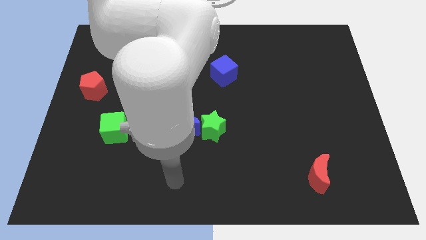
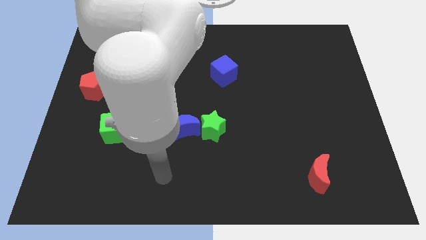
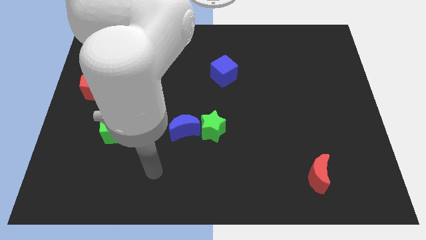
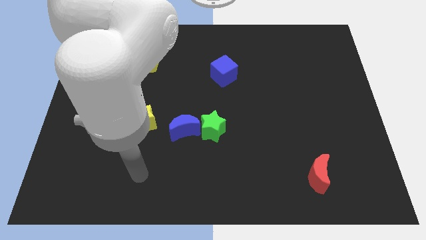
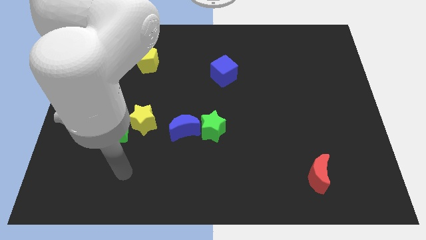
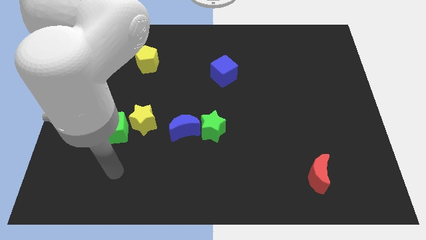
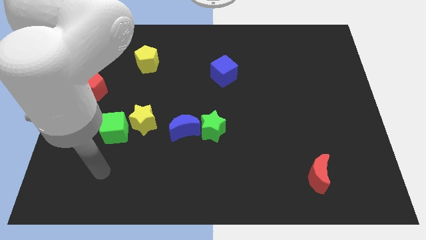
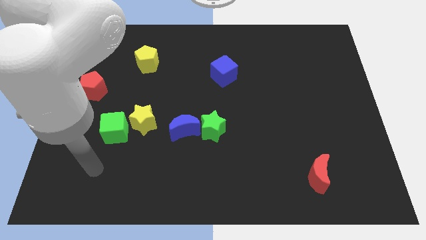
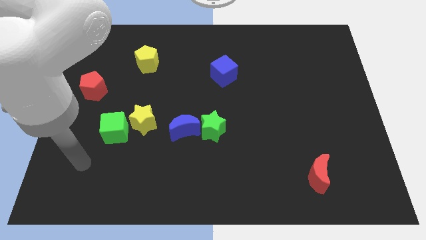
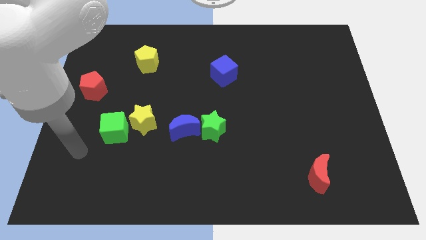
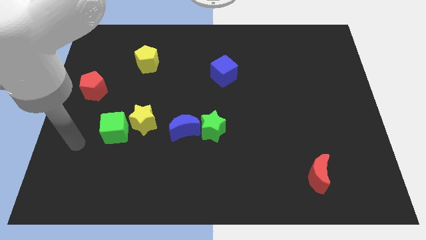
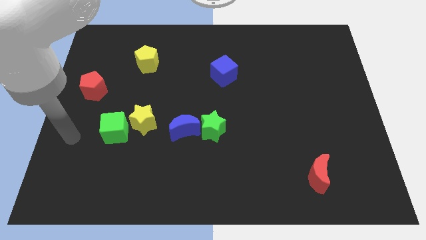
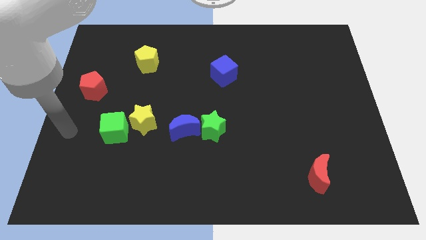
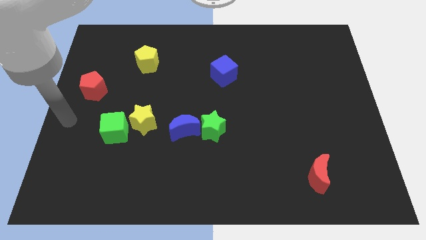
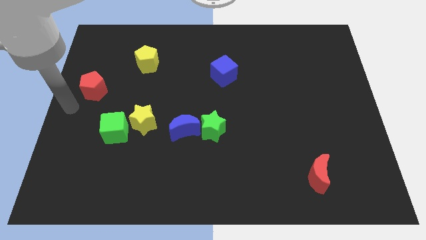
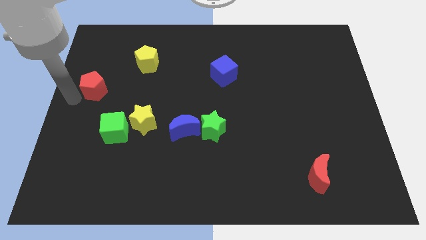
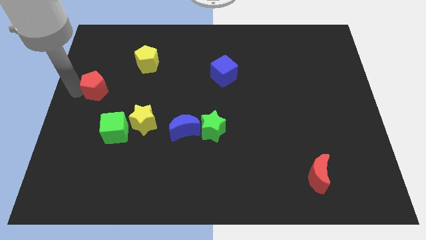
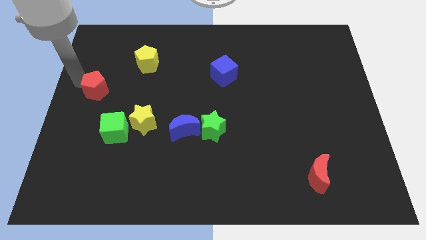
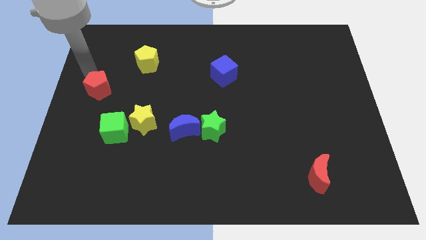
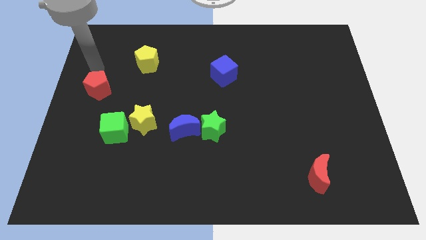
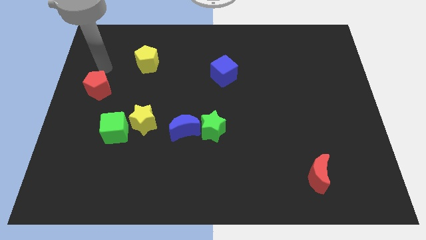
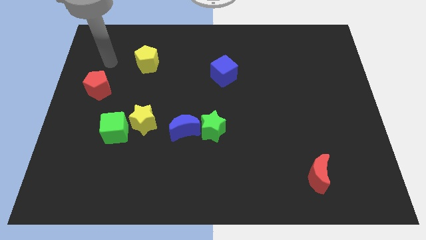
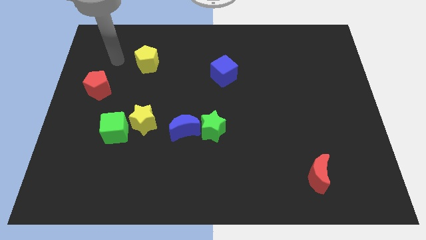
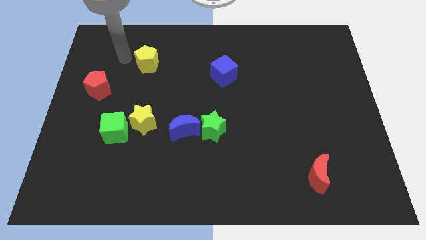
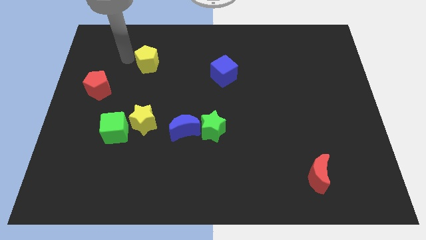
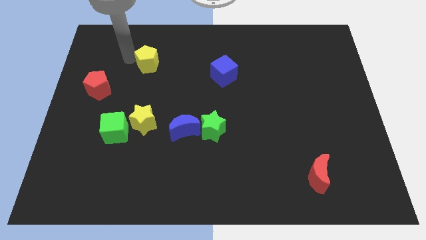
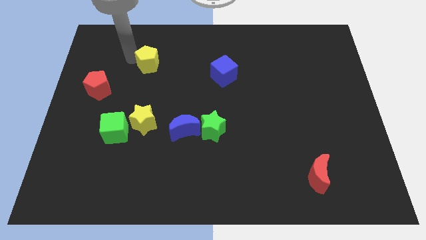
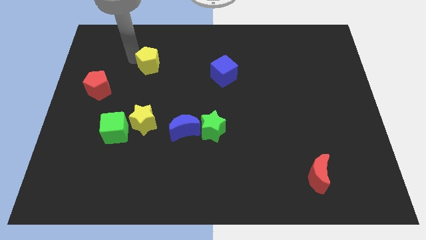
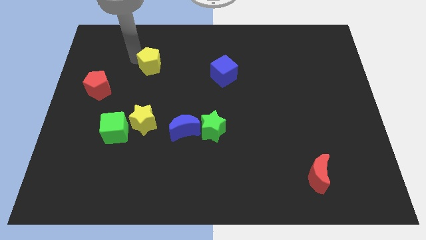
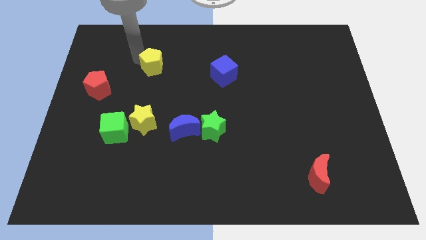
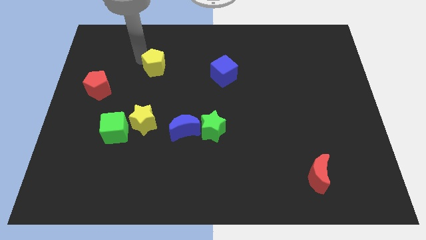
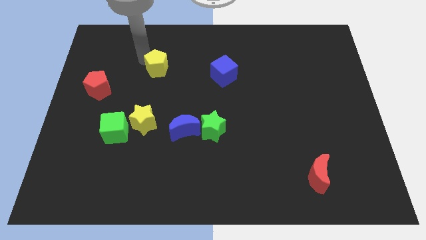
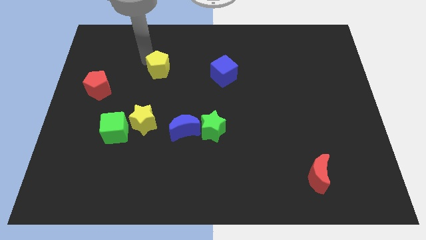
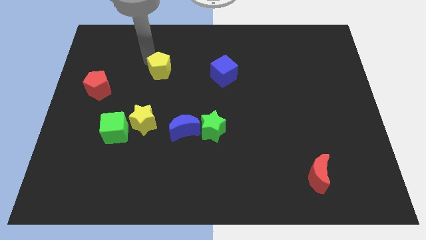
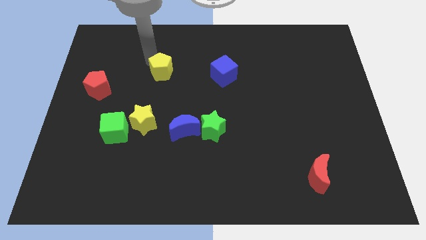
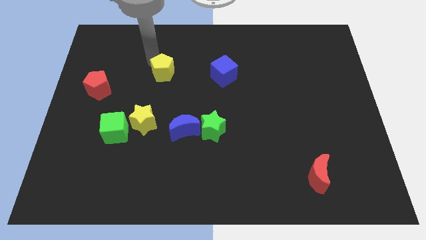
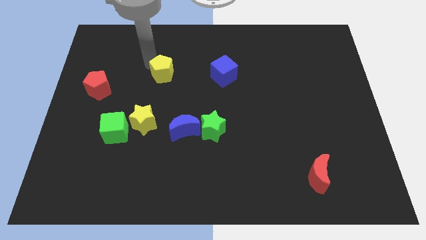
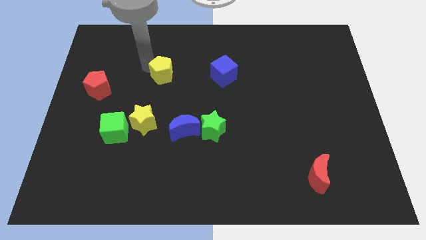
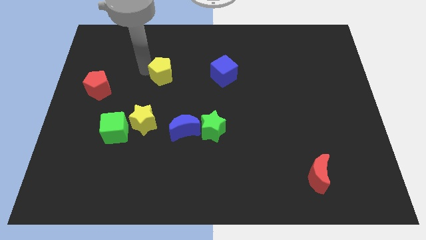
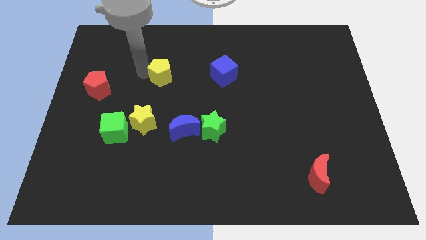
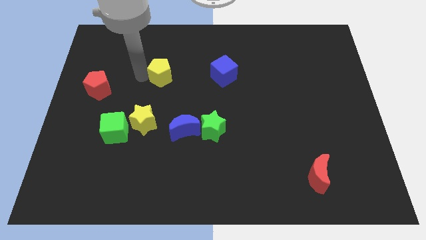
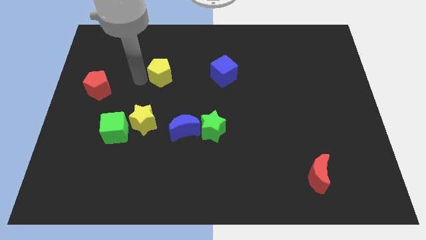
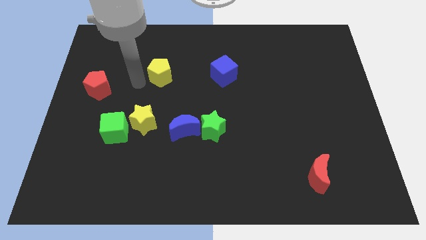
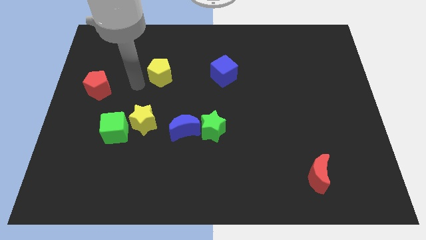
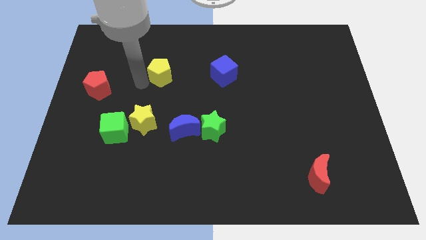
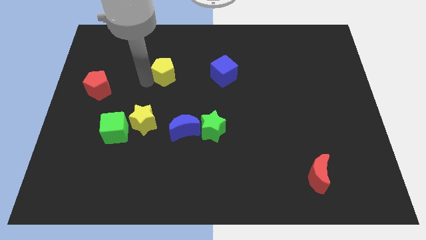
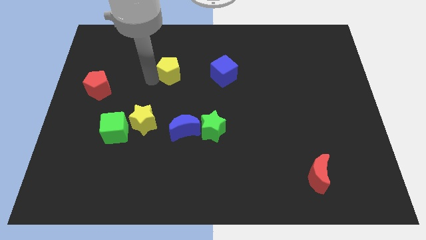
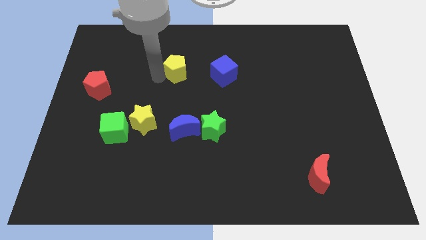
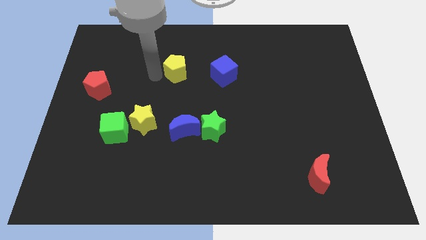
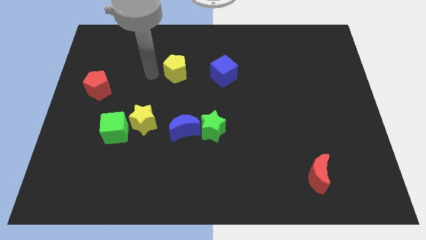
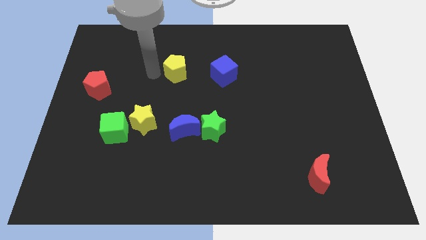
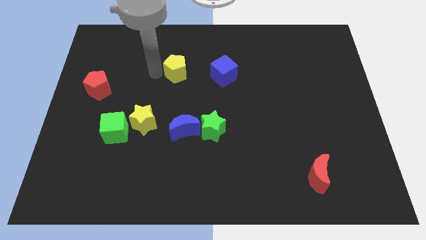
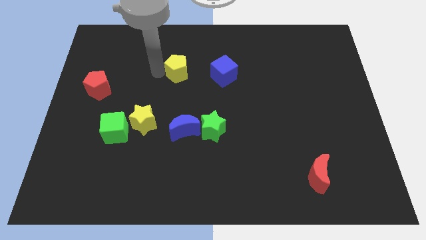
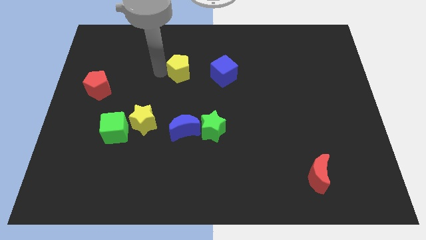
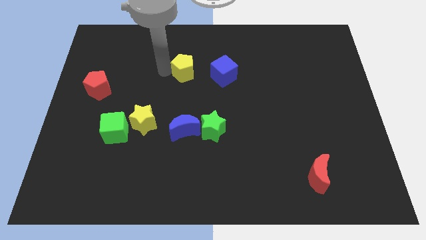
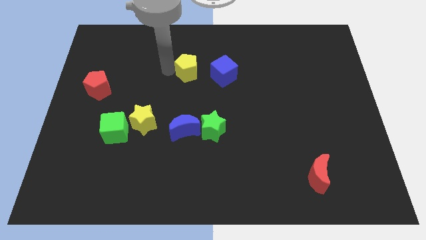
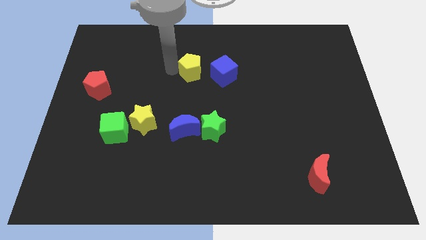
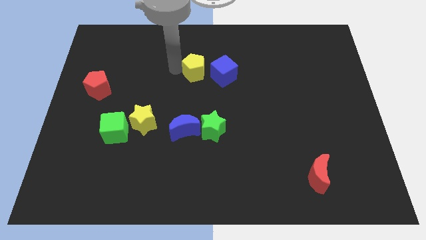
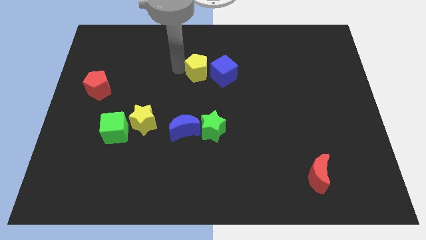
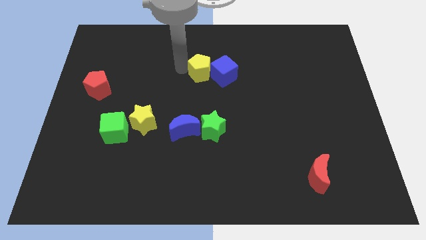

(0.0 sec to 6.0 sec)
move the yellow pentagon next to the blue cube

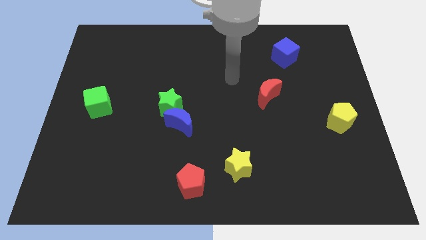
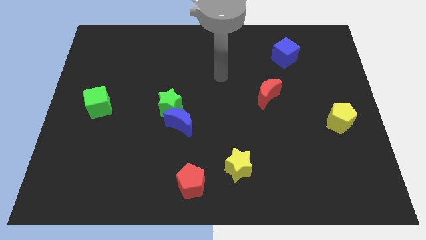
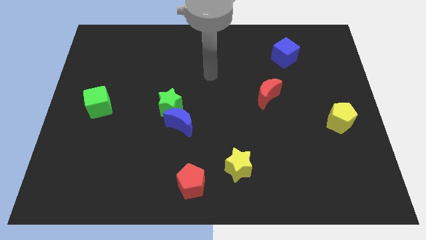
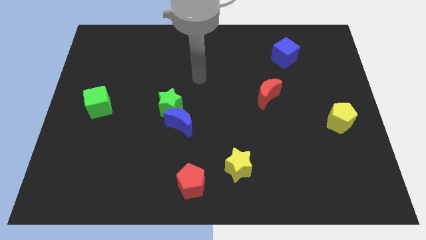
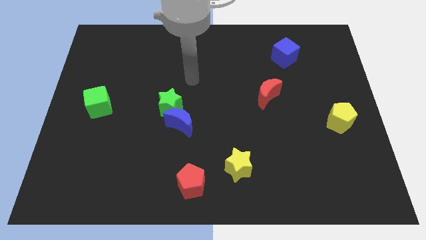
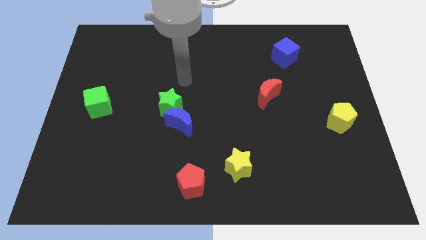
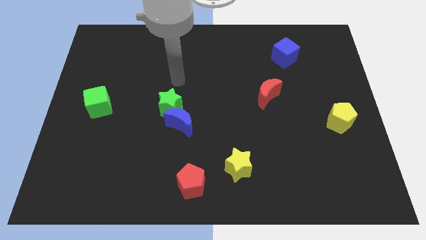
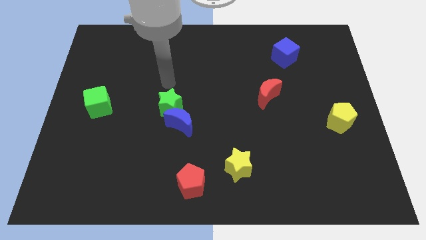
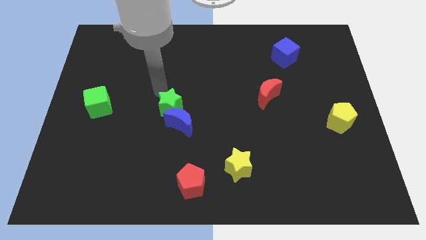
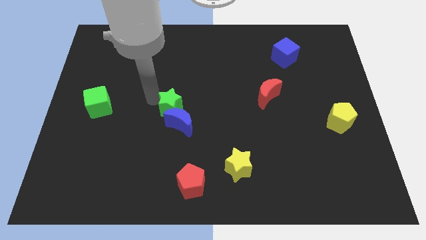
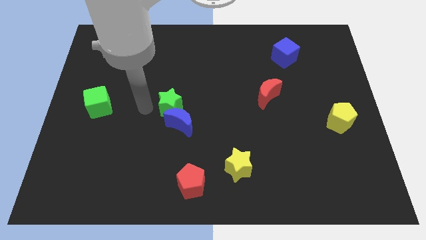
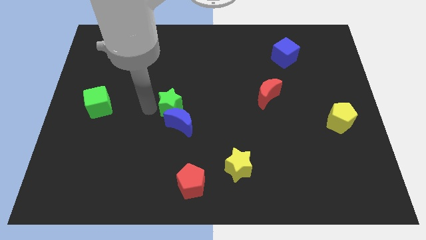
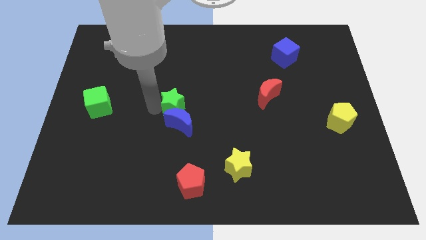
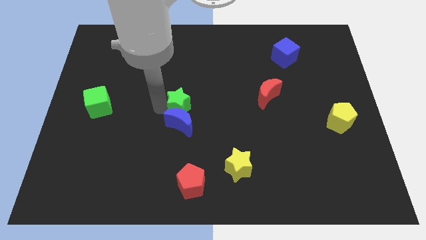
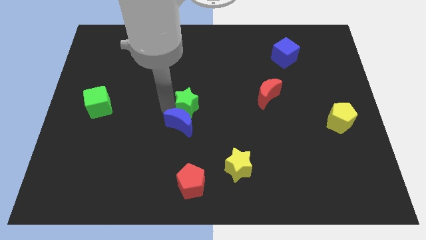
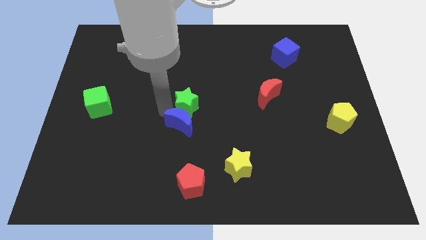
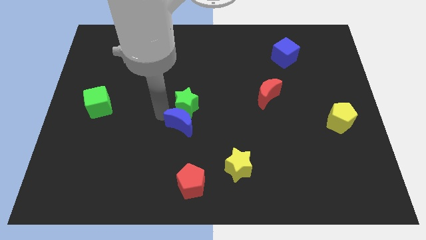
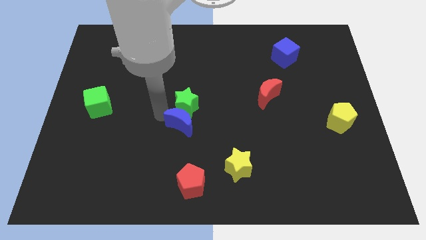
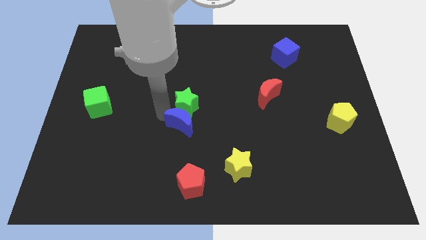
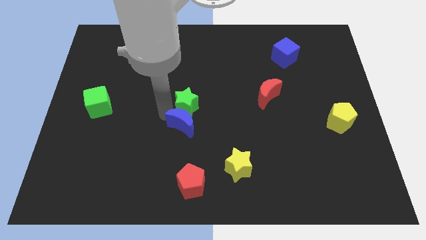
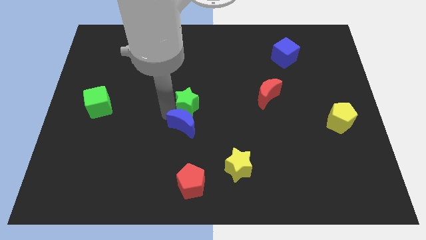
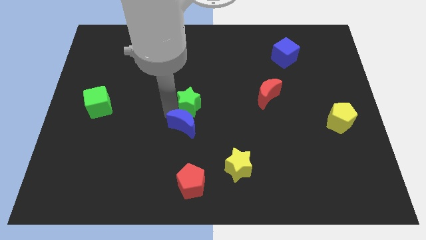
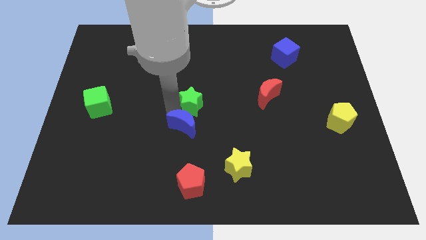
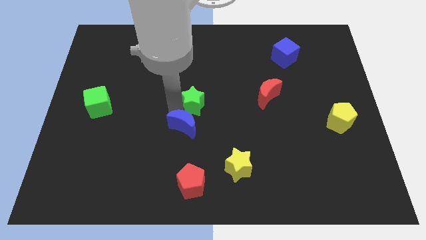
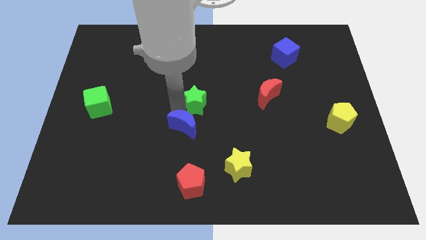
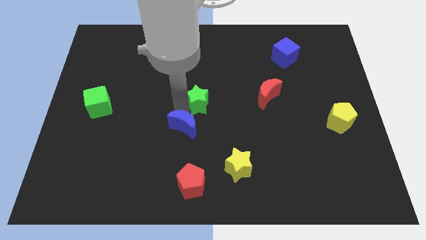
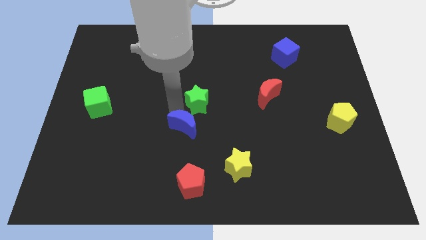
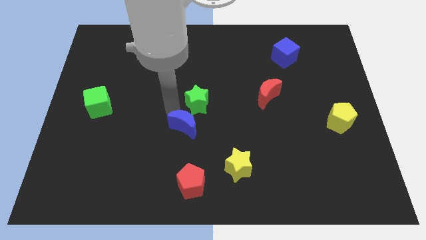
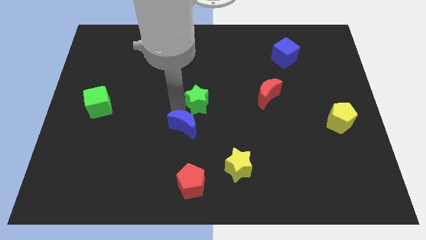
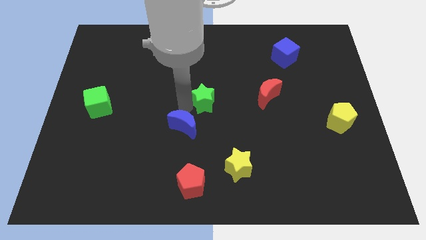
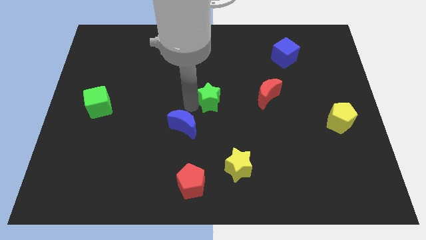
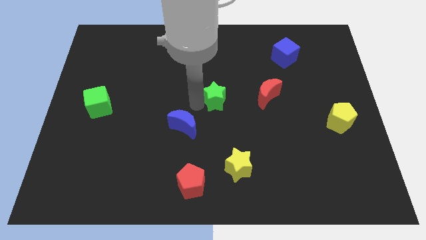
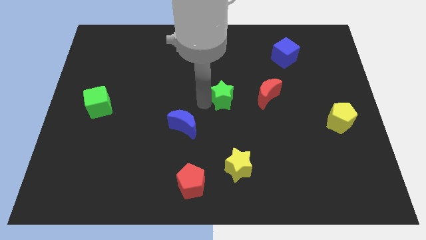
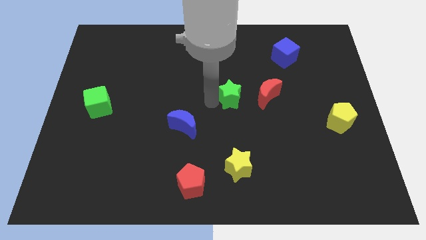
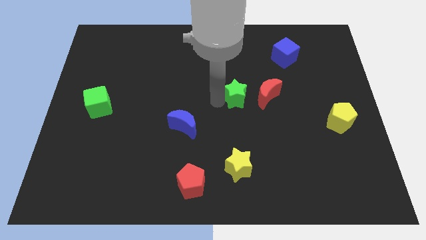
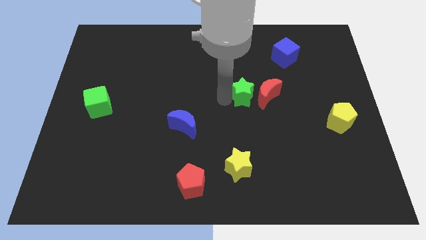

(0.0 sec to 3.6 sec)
slide the green star to the red moon
